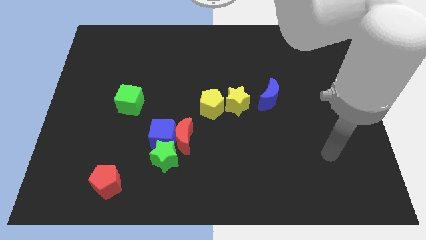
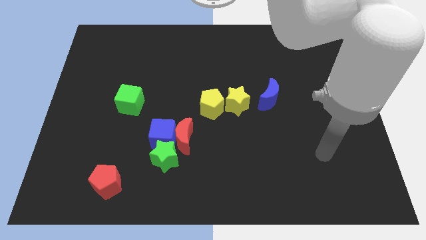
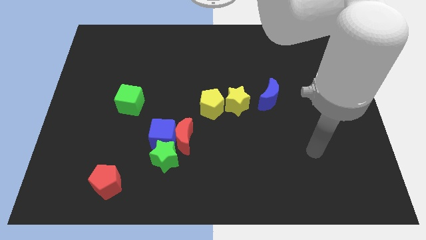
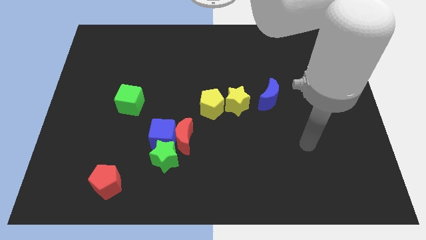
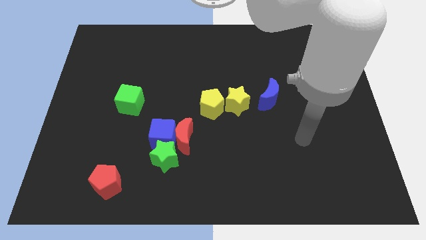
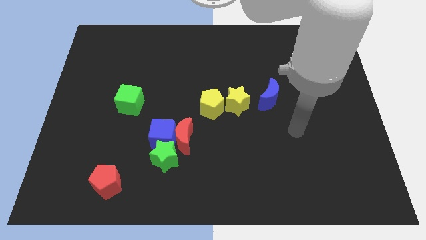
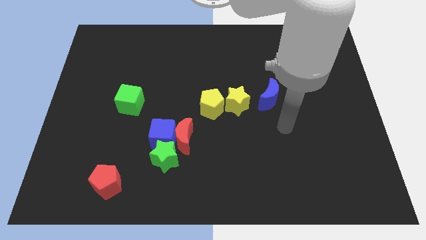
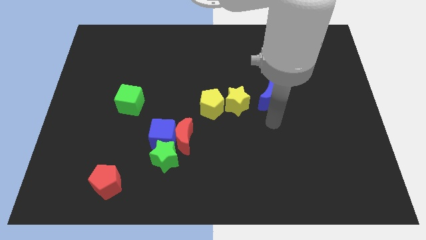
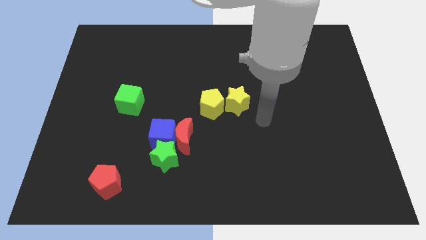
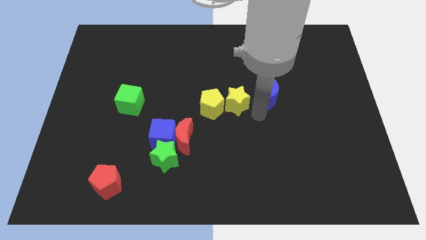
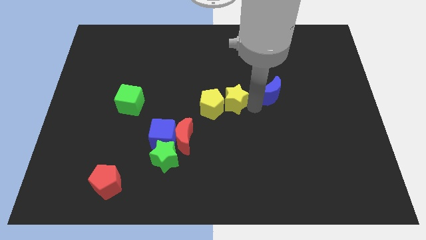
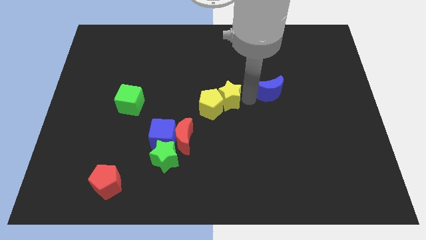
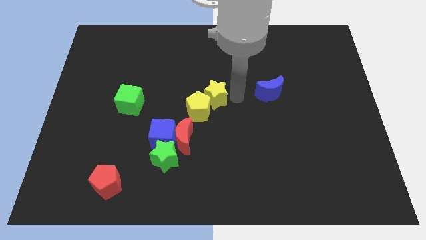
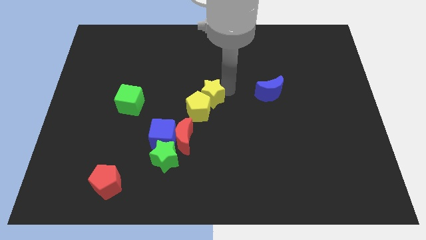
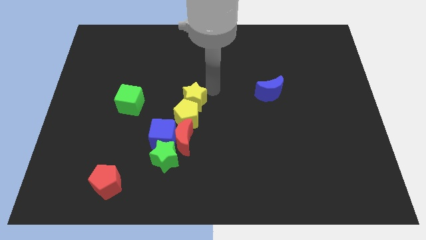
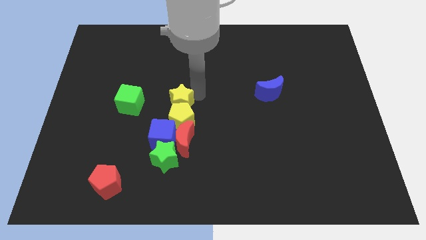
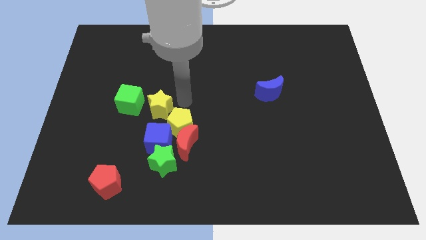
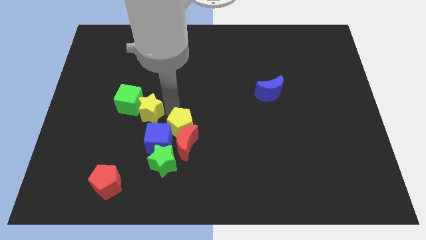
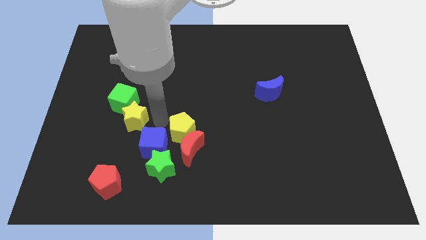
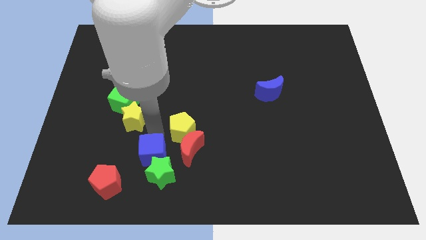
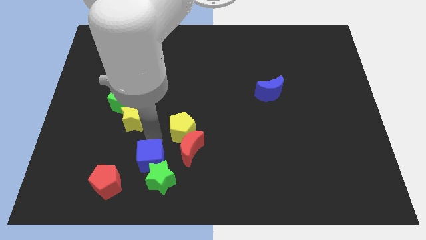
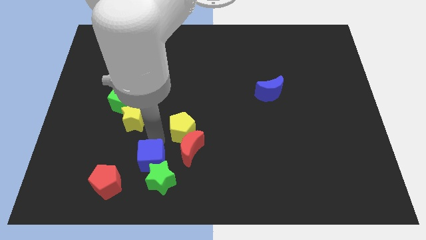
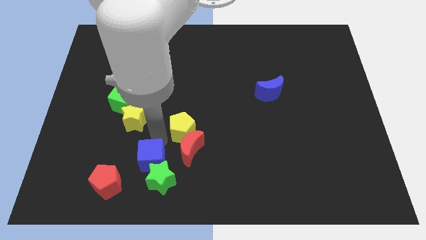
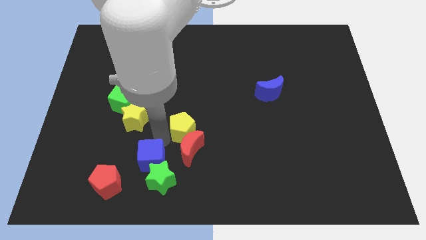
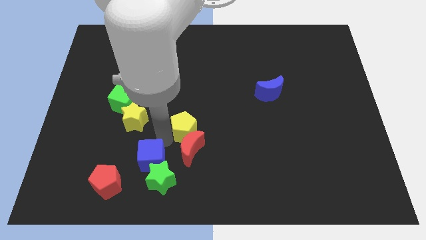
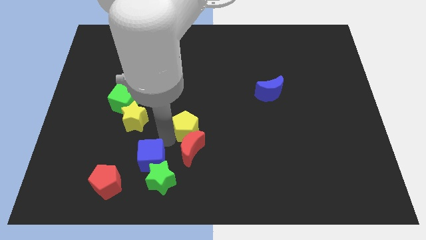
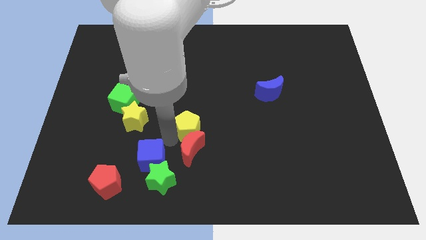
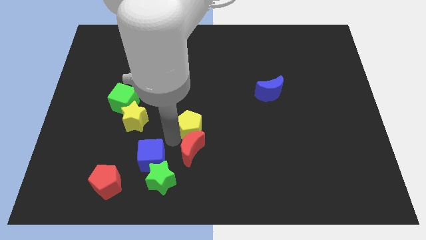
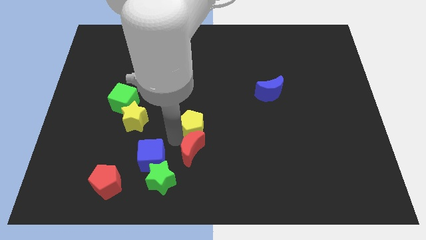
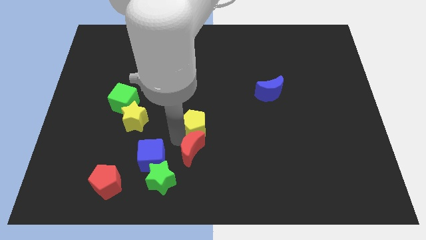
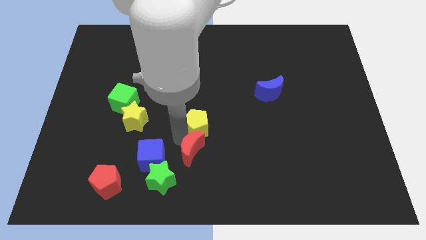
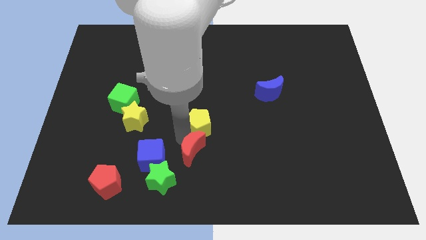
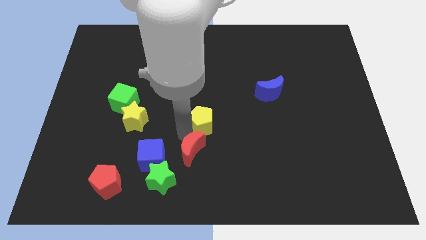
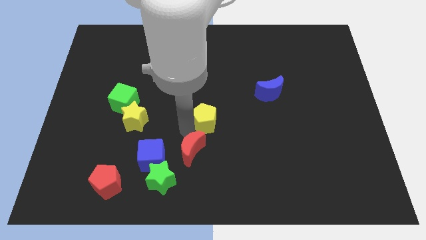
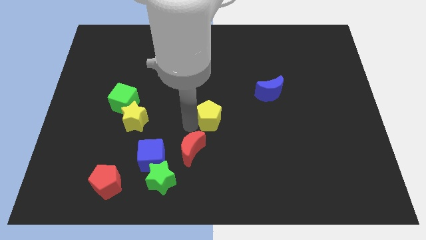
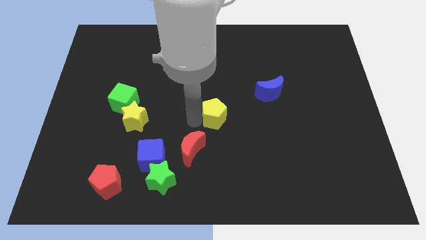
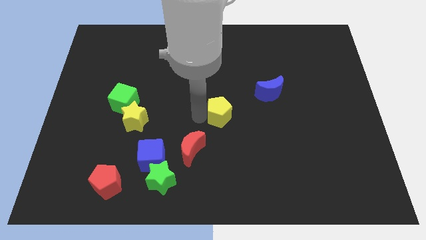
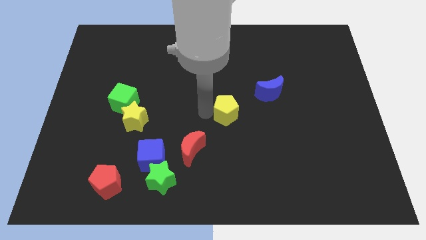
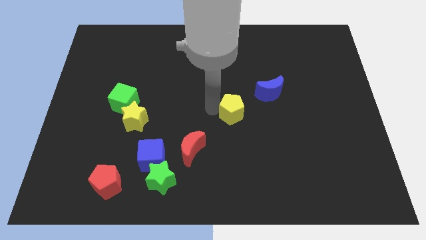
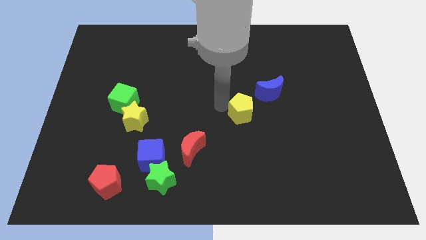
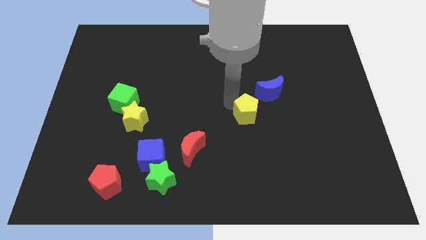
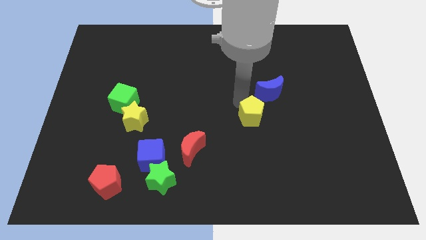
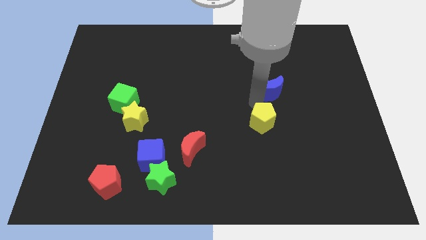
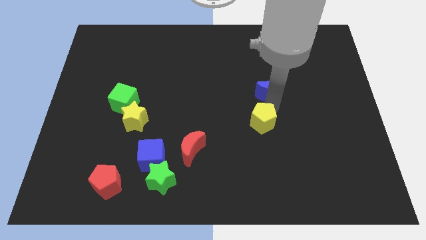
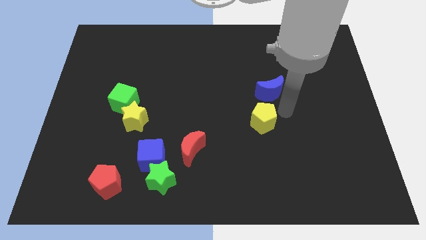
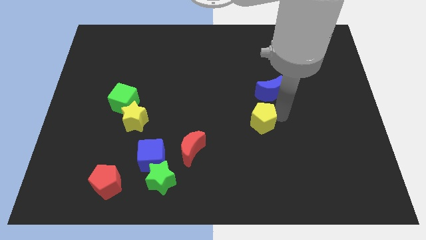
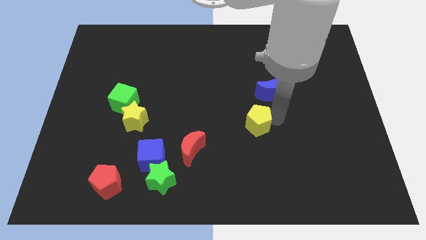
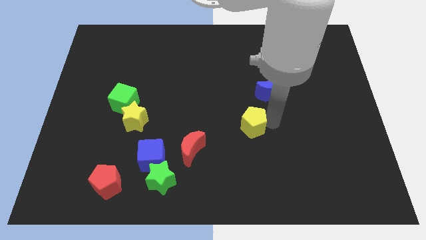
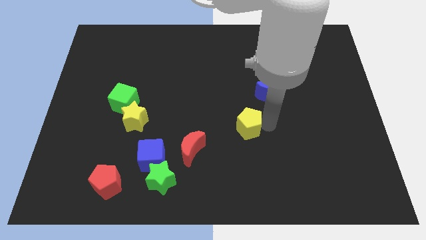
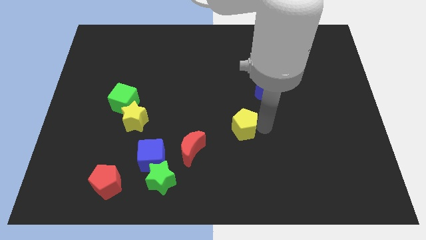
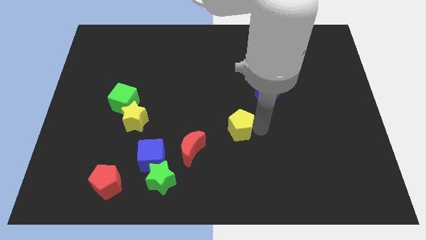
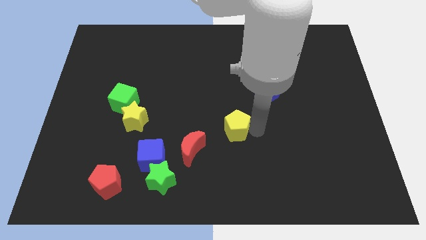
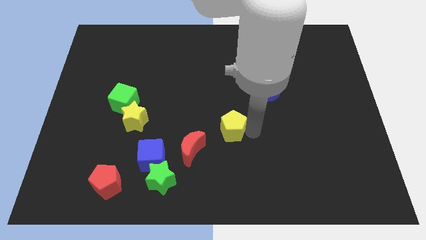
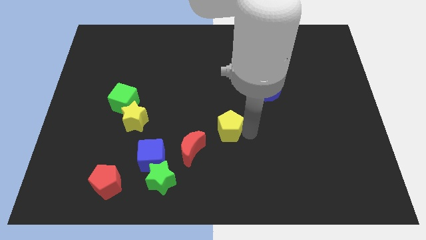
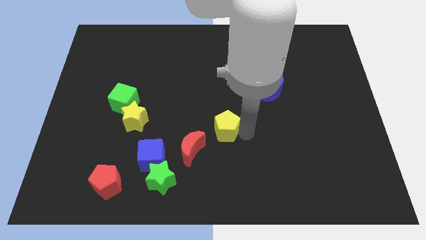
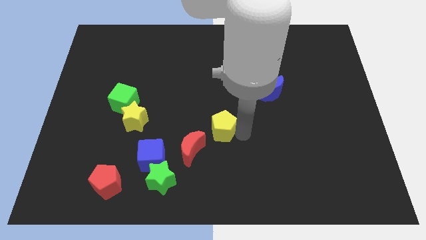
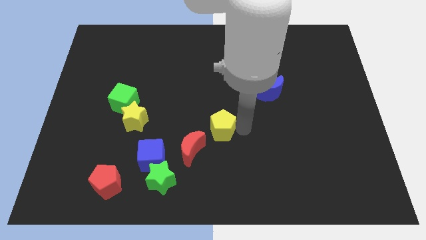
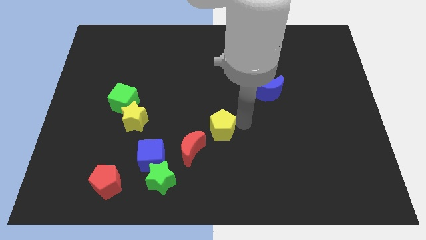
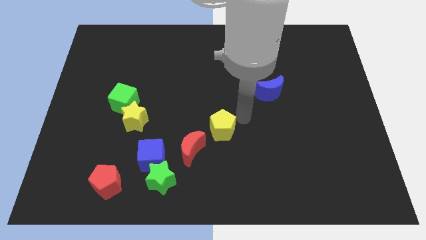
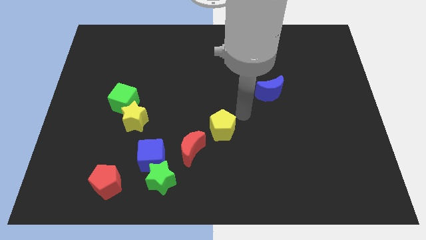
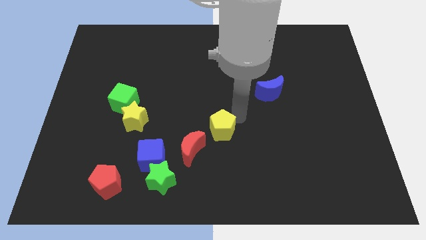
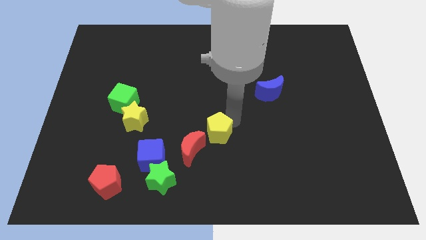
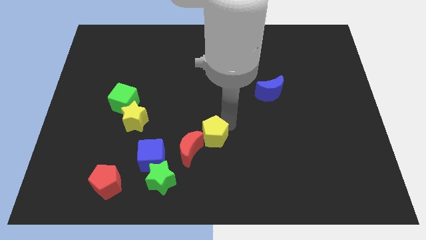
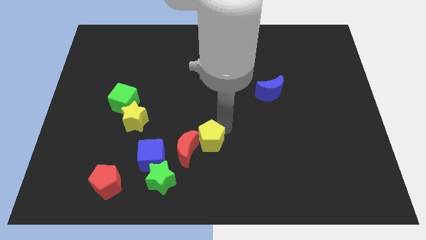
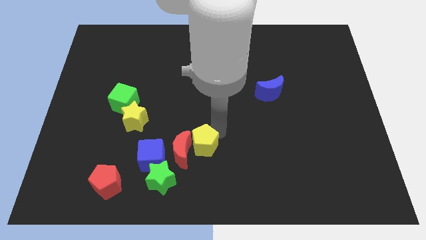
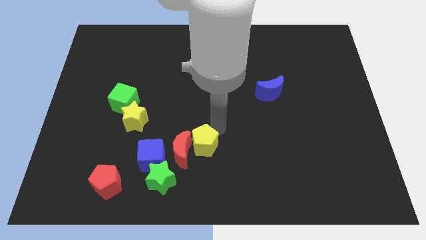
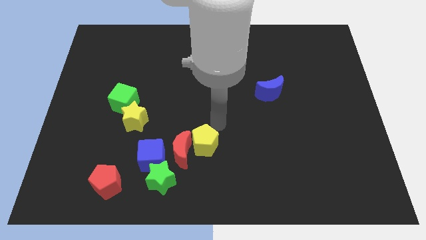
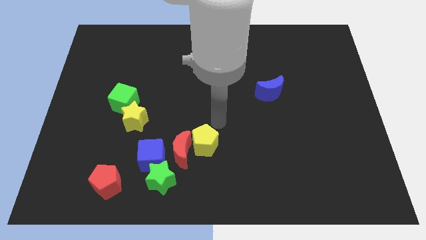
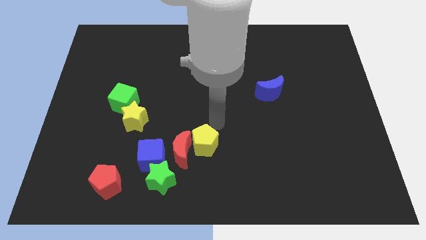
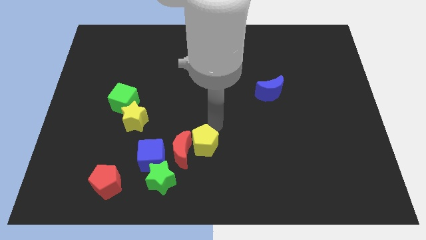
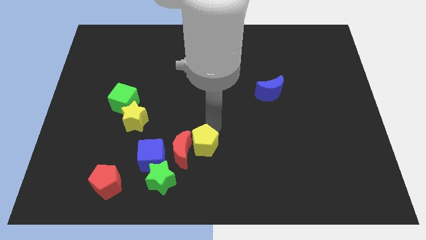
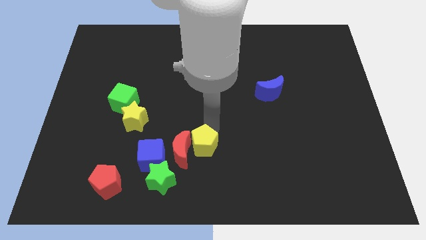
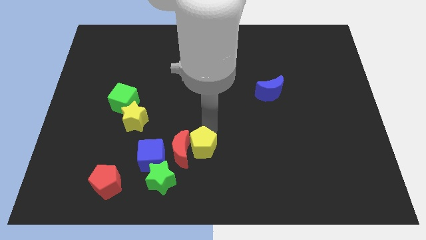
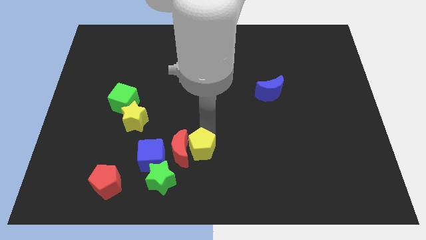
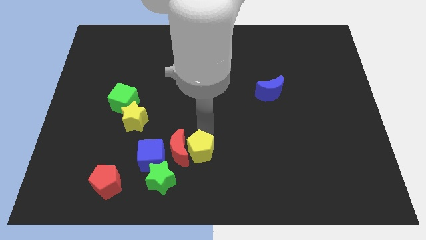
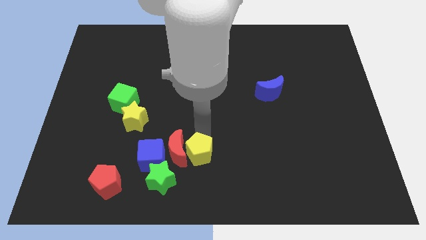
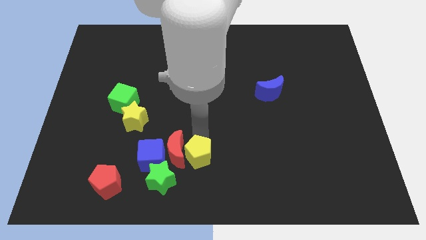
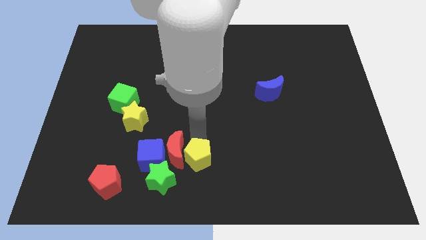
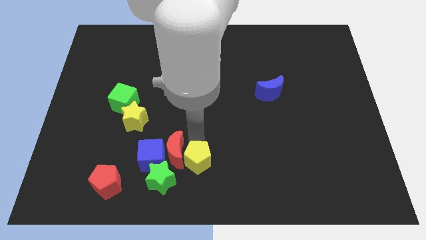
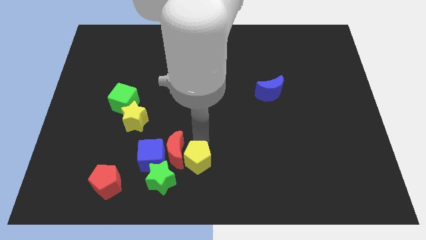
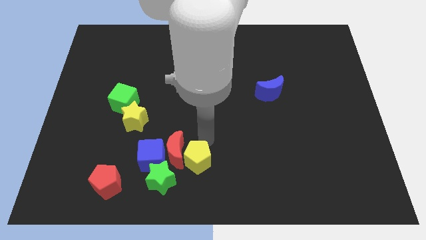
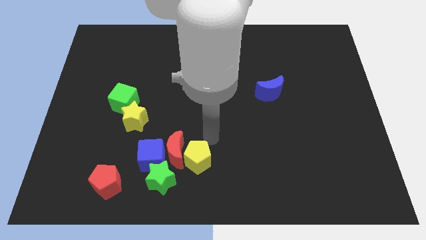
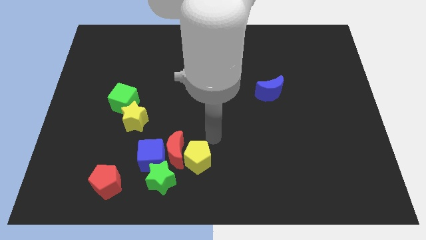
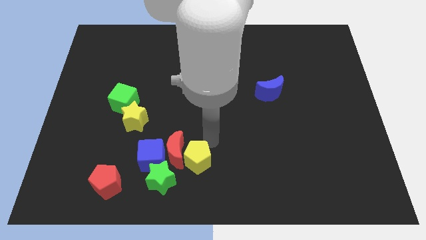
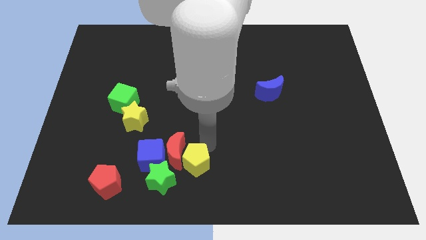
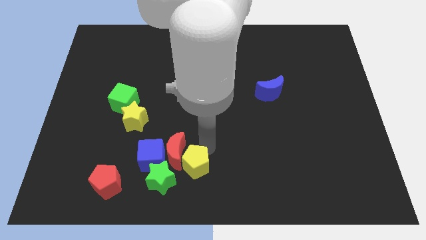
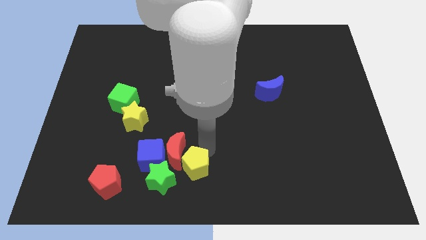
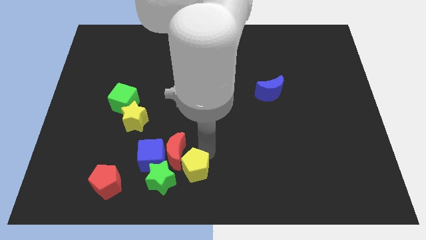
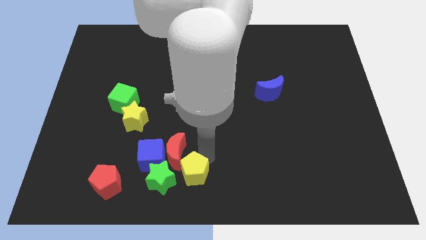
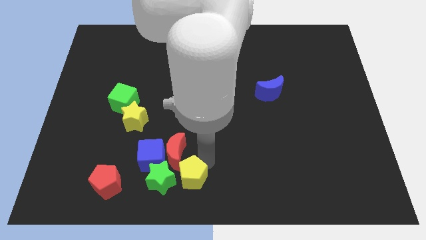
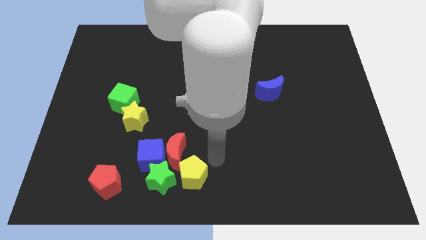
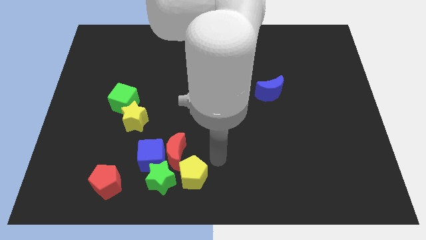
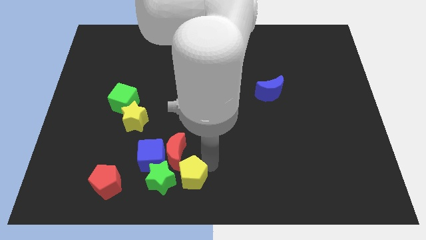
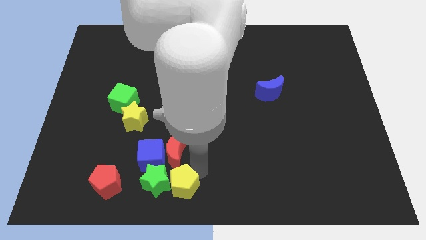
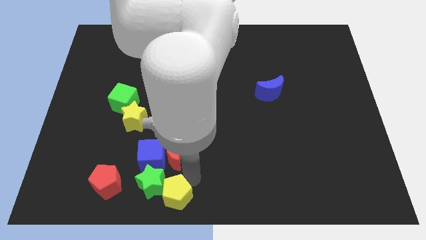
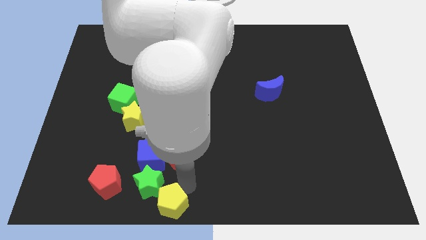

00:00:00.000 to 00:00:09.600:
move the yellow pentagon below the blue cube
